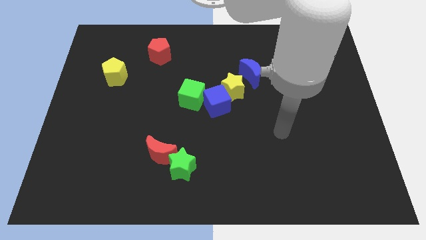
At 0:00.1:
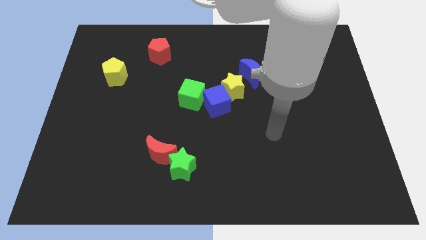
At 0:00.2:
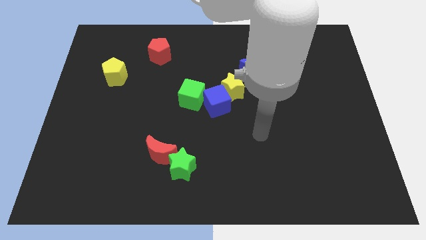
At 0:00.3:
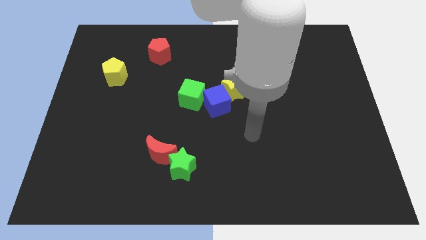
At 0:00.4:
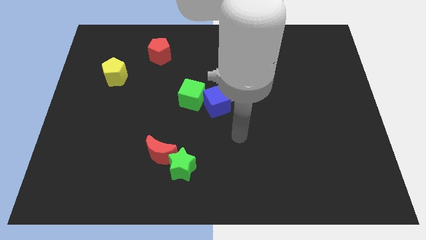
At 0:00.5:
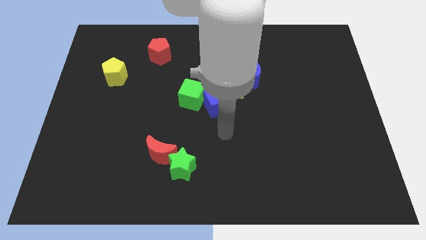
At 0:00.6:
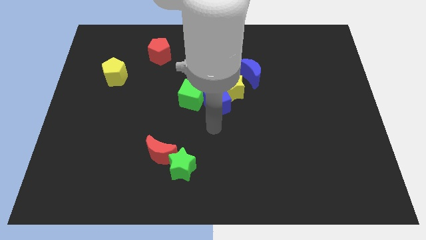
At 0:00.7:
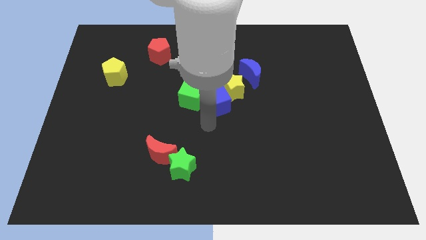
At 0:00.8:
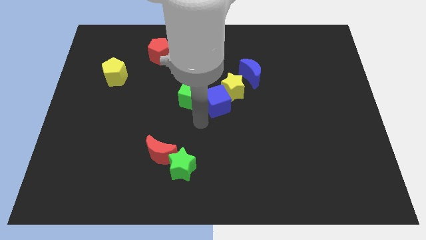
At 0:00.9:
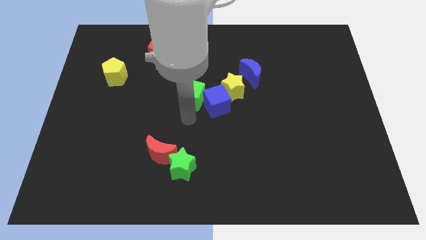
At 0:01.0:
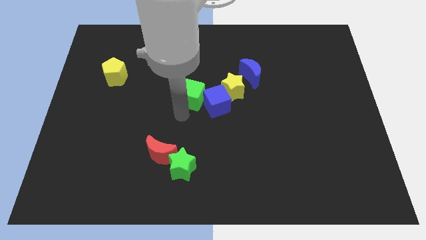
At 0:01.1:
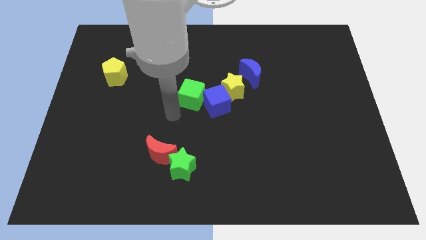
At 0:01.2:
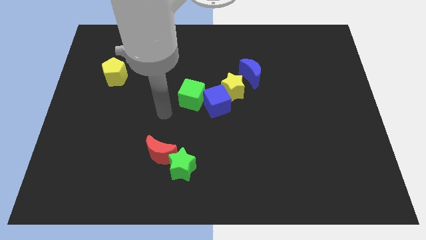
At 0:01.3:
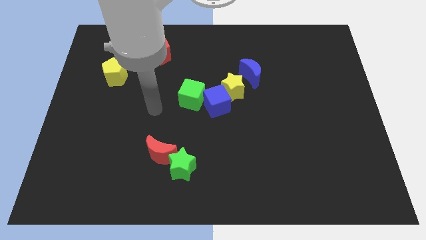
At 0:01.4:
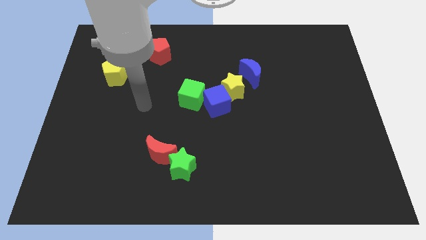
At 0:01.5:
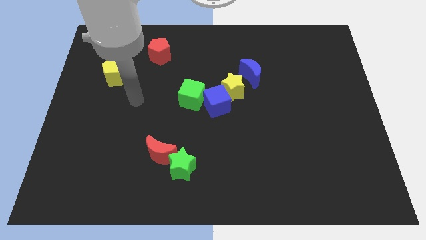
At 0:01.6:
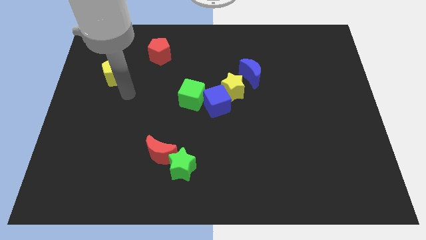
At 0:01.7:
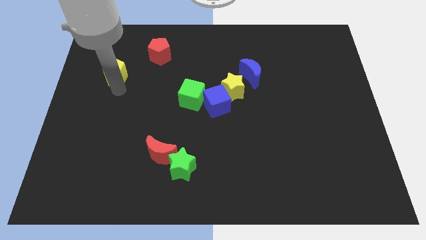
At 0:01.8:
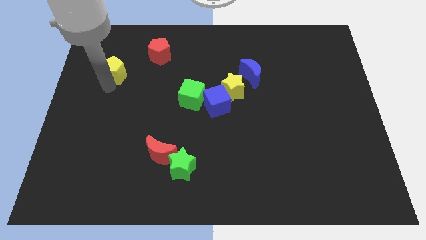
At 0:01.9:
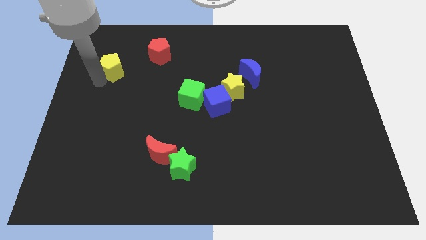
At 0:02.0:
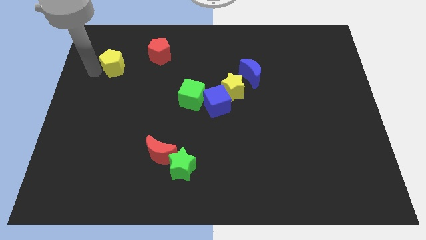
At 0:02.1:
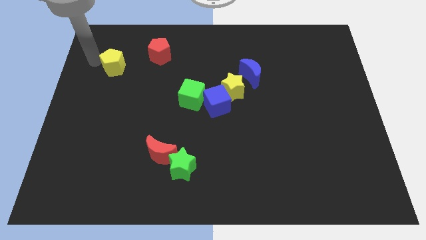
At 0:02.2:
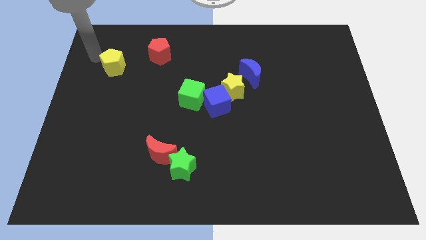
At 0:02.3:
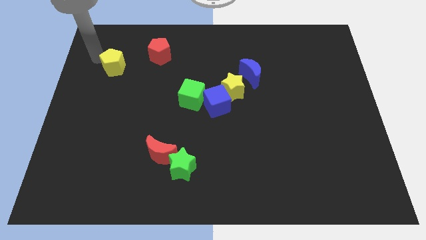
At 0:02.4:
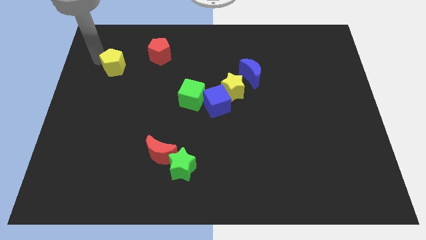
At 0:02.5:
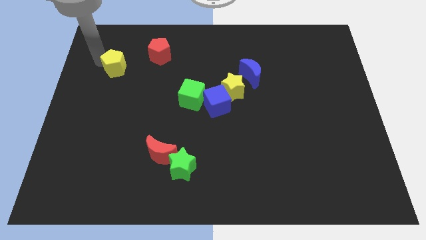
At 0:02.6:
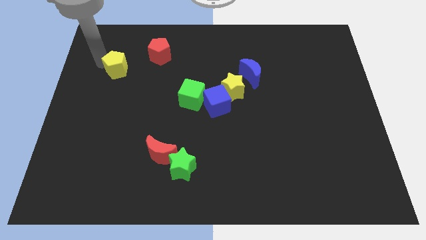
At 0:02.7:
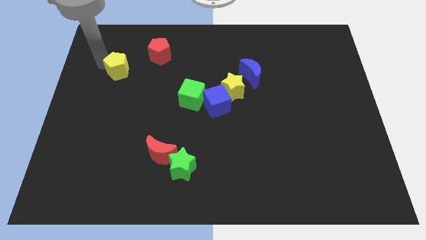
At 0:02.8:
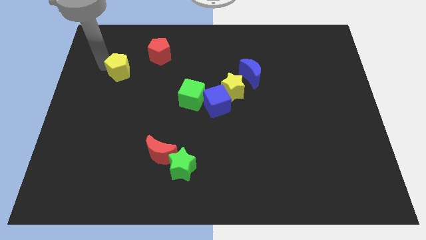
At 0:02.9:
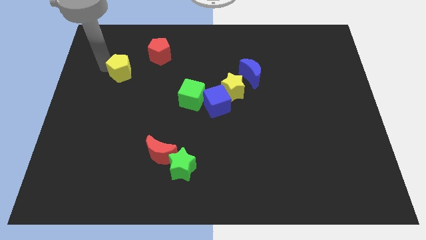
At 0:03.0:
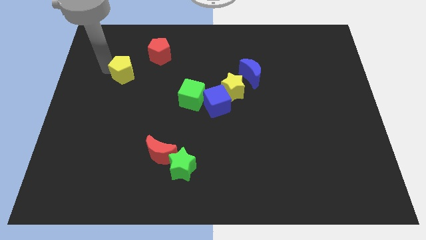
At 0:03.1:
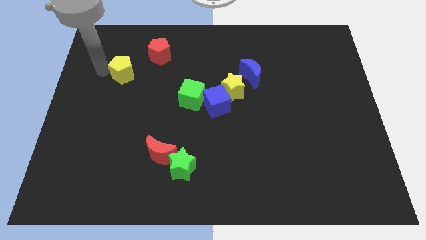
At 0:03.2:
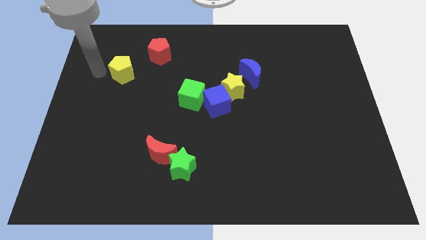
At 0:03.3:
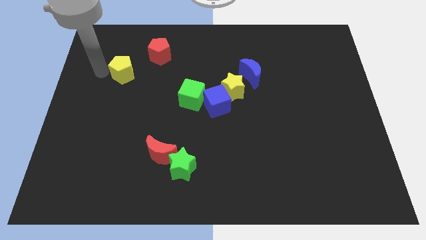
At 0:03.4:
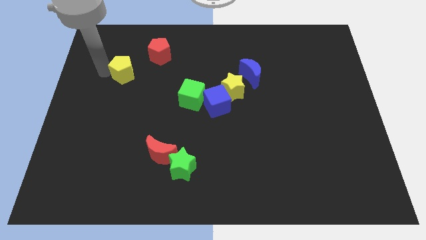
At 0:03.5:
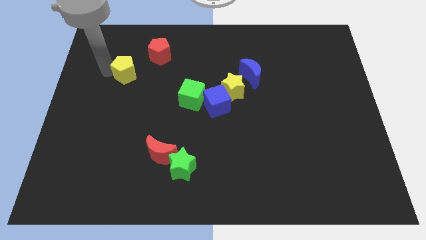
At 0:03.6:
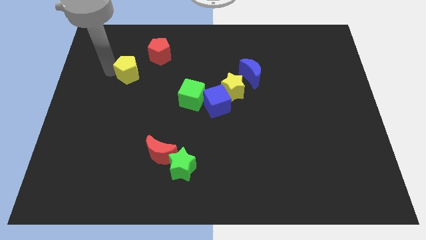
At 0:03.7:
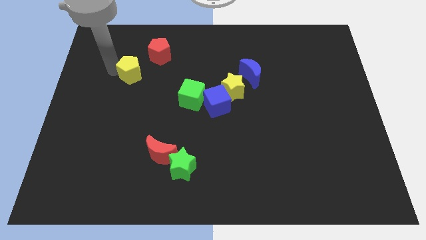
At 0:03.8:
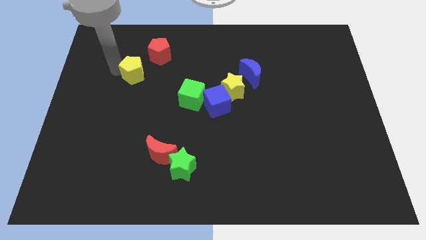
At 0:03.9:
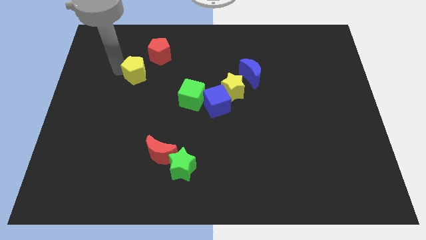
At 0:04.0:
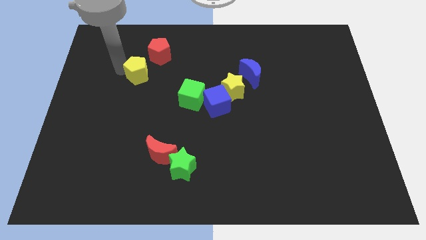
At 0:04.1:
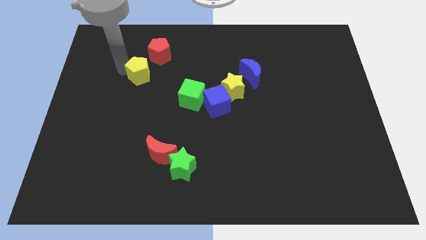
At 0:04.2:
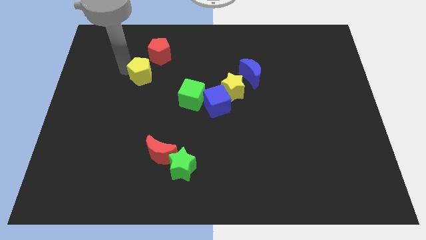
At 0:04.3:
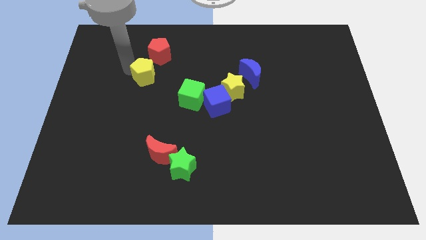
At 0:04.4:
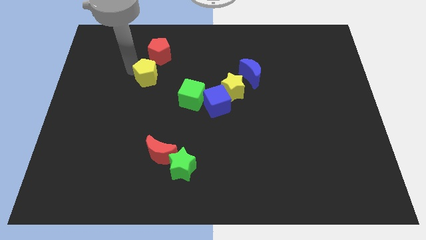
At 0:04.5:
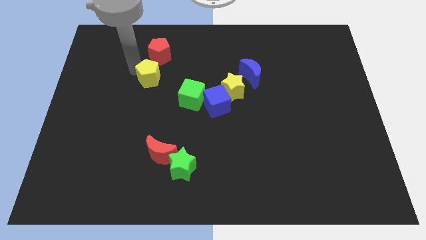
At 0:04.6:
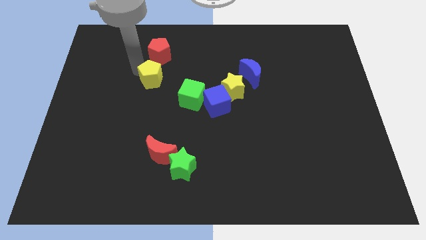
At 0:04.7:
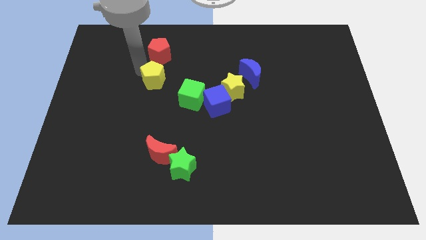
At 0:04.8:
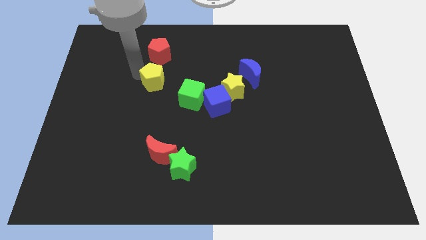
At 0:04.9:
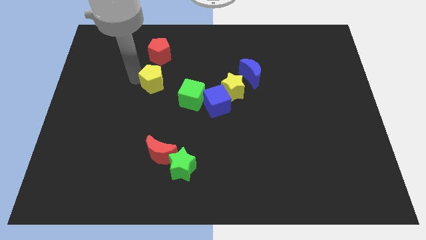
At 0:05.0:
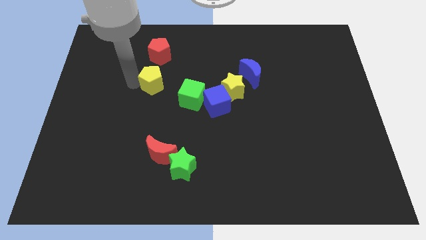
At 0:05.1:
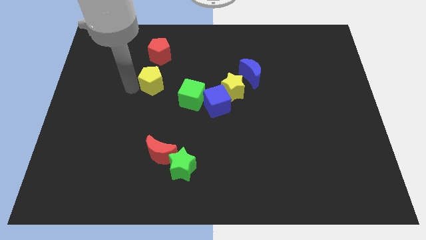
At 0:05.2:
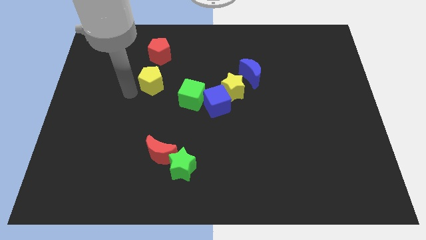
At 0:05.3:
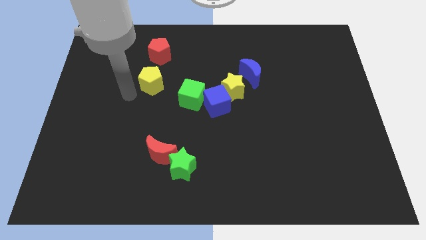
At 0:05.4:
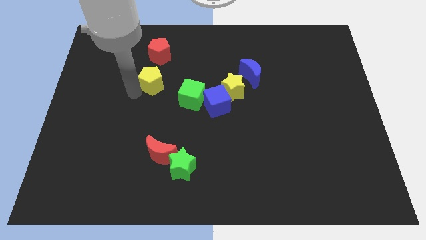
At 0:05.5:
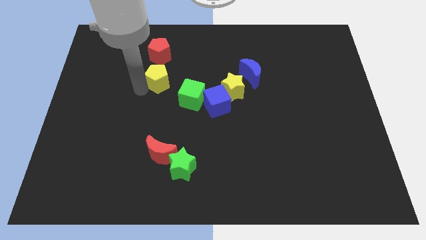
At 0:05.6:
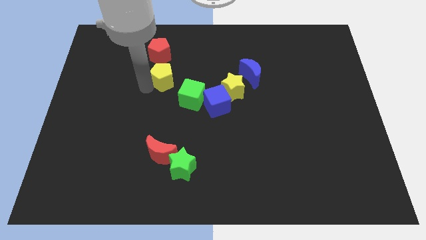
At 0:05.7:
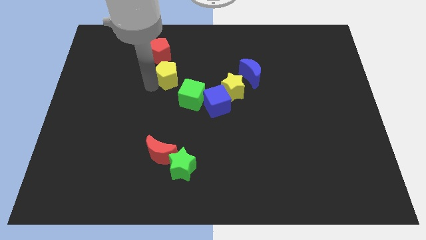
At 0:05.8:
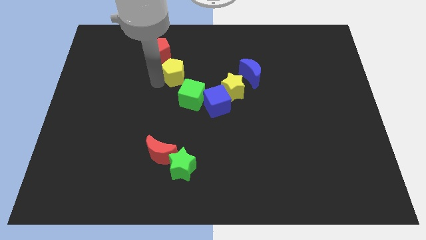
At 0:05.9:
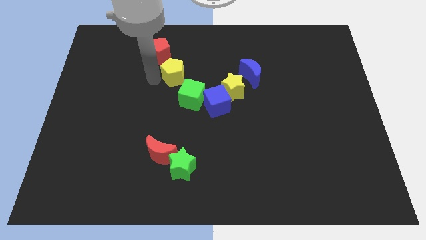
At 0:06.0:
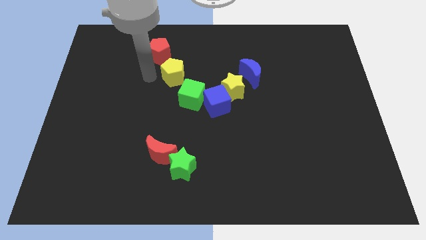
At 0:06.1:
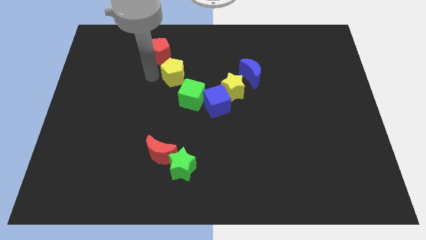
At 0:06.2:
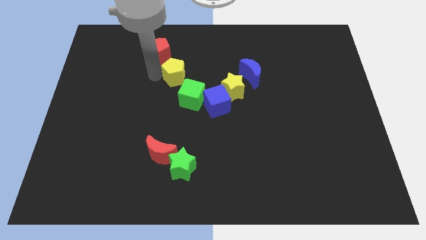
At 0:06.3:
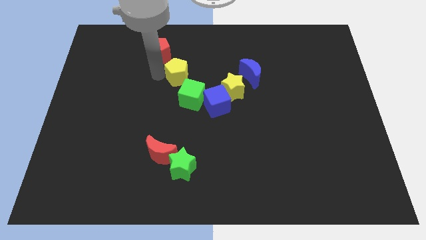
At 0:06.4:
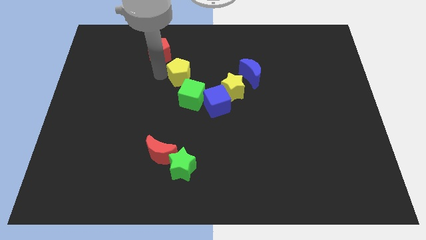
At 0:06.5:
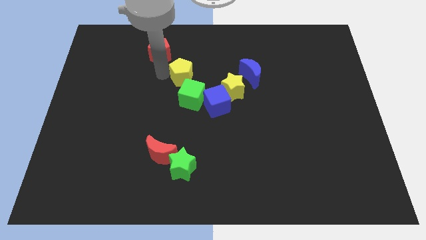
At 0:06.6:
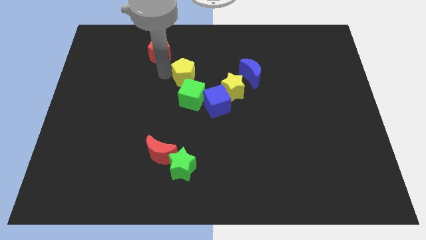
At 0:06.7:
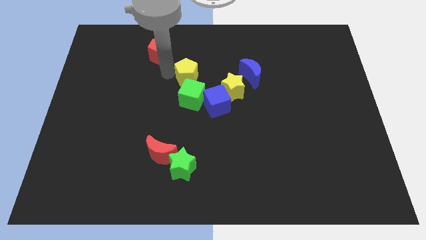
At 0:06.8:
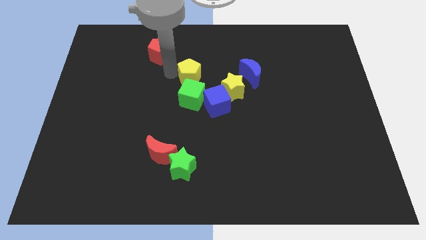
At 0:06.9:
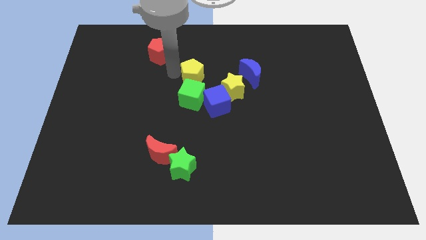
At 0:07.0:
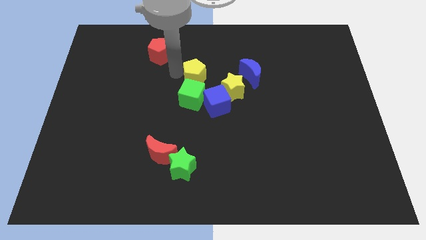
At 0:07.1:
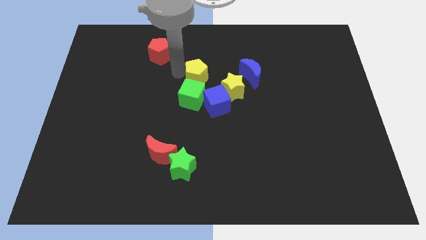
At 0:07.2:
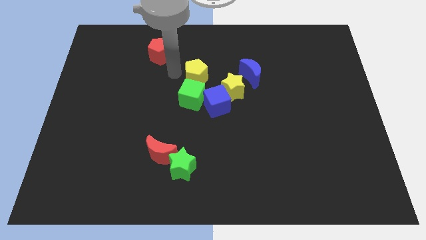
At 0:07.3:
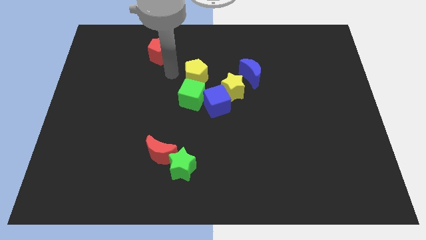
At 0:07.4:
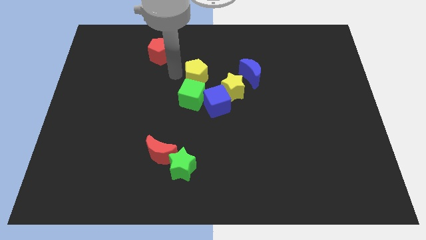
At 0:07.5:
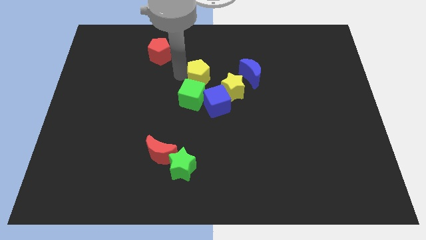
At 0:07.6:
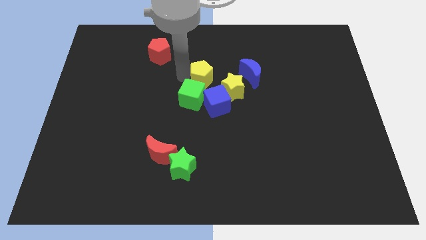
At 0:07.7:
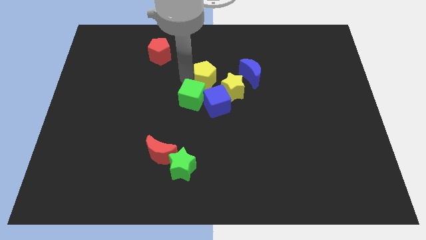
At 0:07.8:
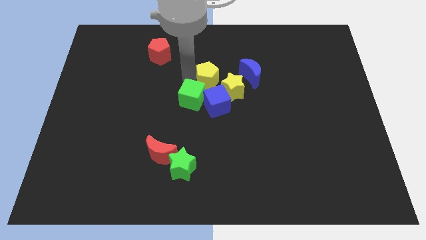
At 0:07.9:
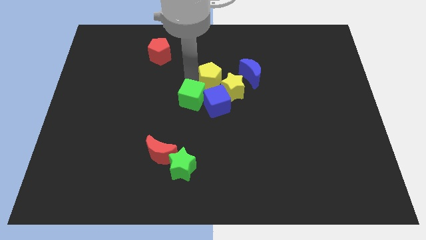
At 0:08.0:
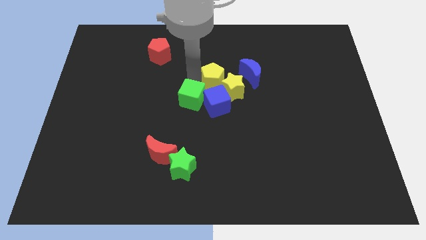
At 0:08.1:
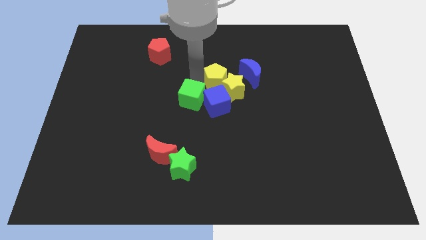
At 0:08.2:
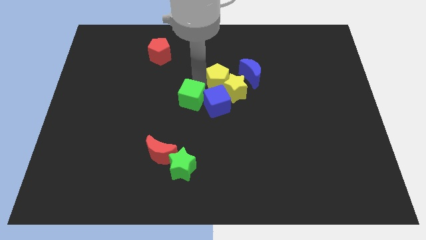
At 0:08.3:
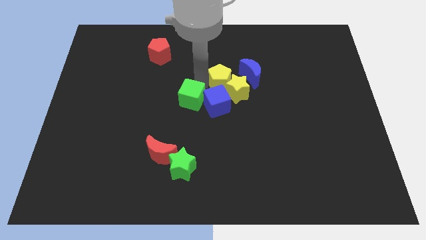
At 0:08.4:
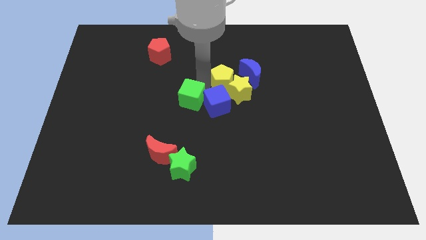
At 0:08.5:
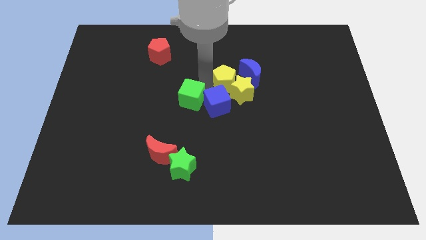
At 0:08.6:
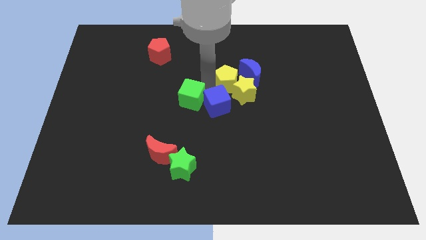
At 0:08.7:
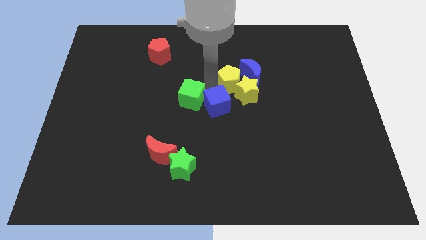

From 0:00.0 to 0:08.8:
move the yellow pentagon next to the blue moon
